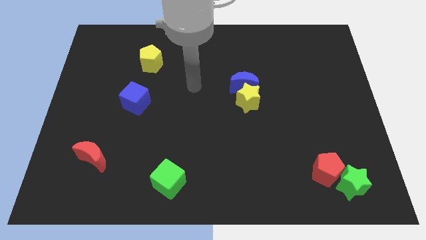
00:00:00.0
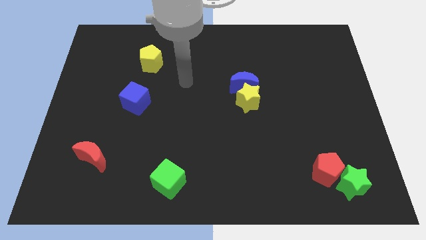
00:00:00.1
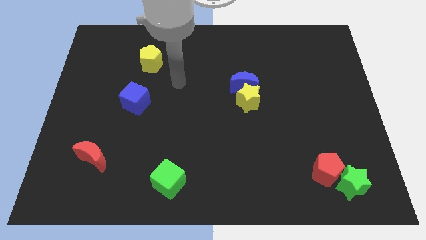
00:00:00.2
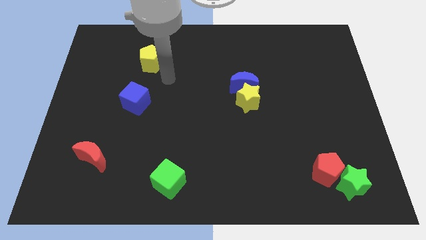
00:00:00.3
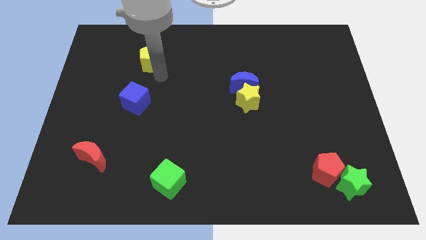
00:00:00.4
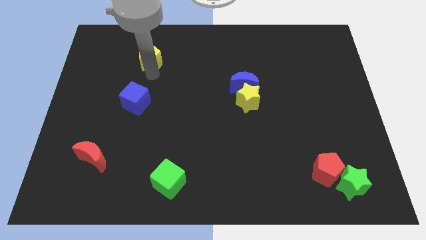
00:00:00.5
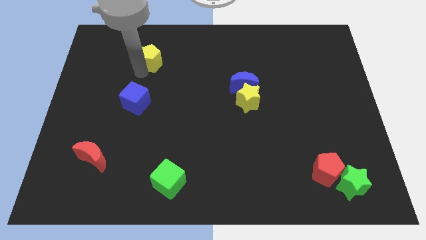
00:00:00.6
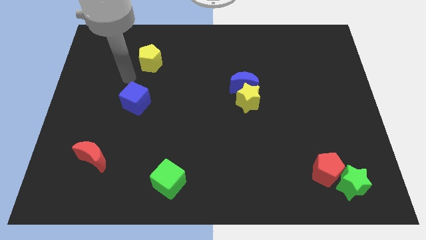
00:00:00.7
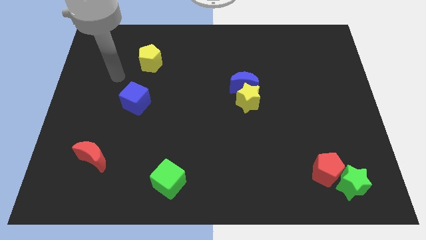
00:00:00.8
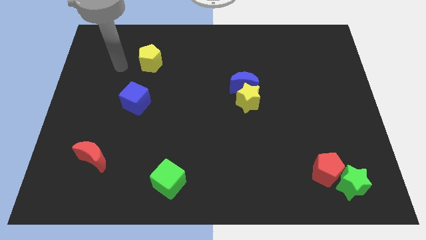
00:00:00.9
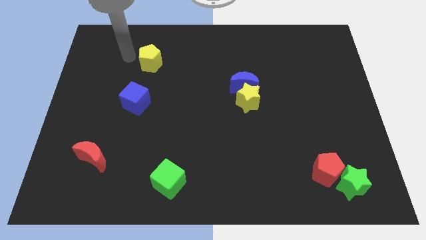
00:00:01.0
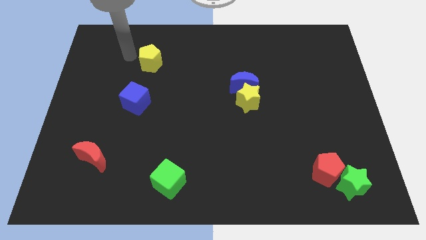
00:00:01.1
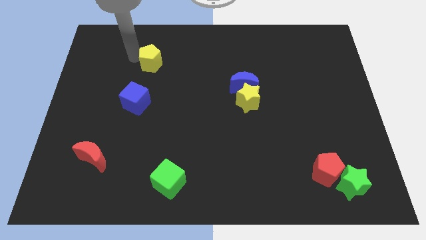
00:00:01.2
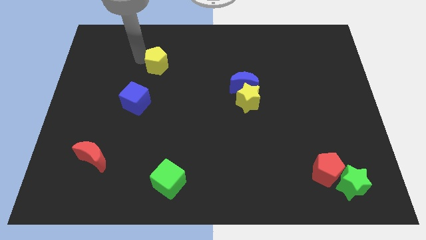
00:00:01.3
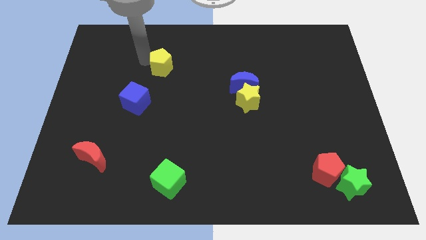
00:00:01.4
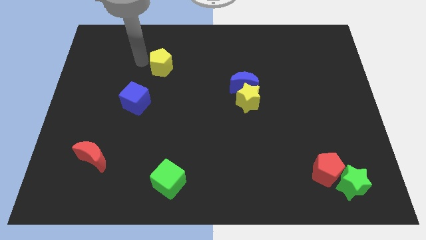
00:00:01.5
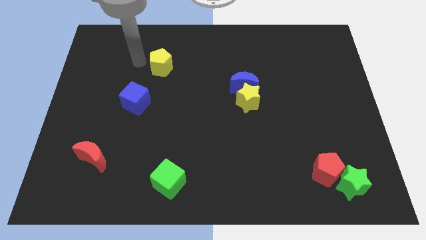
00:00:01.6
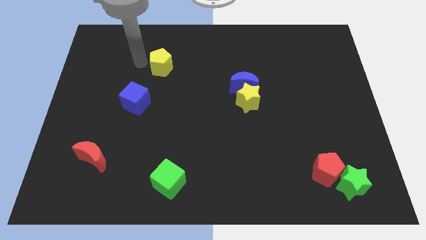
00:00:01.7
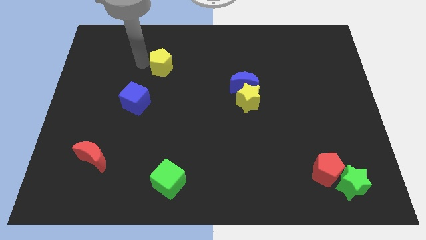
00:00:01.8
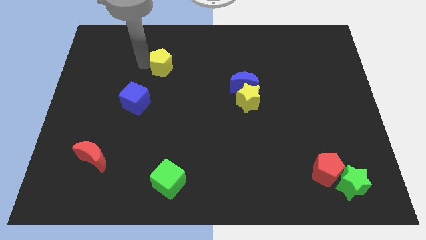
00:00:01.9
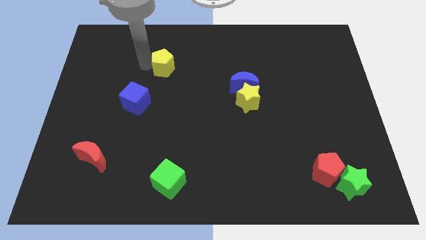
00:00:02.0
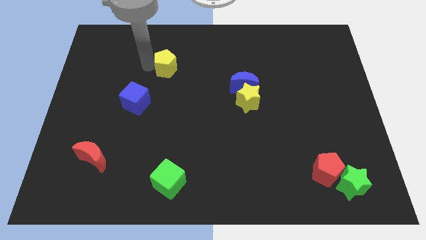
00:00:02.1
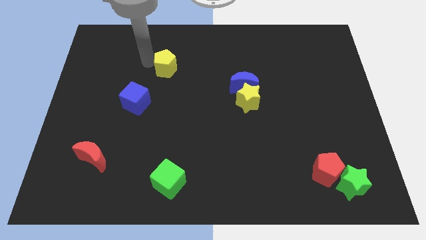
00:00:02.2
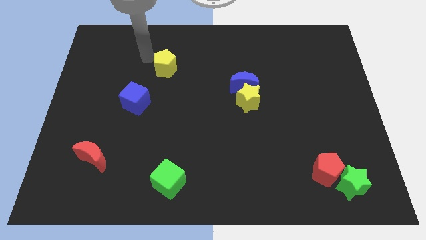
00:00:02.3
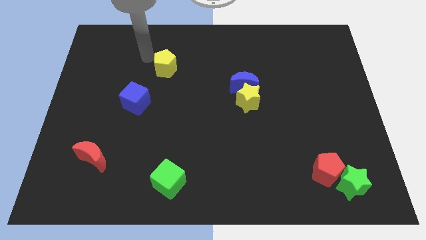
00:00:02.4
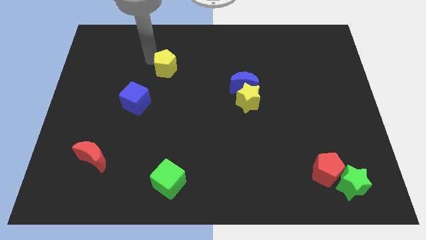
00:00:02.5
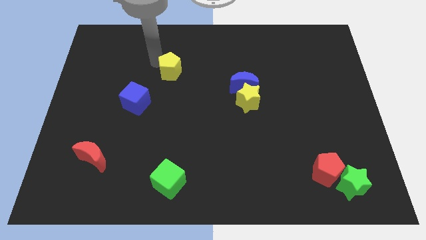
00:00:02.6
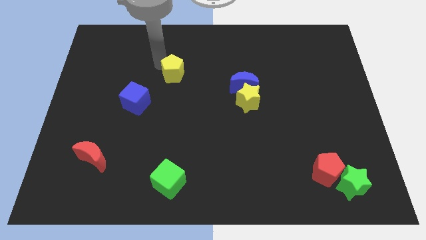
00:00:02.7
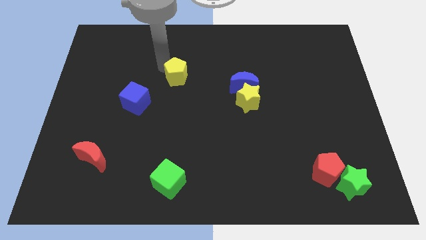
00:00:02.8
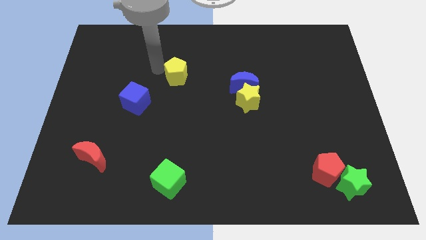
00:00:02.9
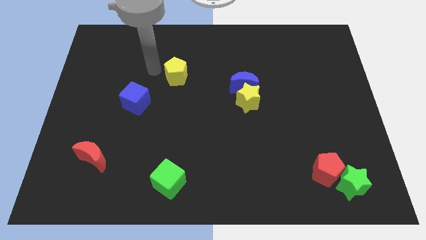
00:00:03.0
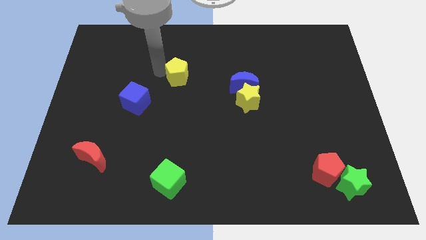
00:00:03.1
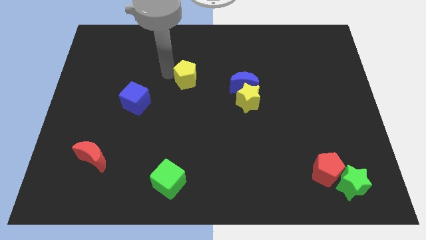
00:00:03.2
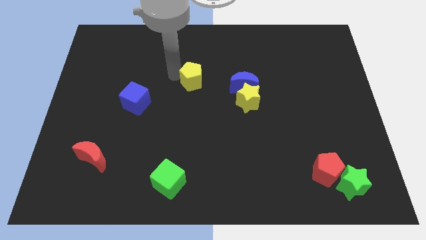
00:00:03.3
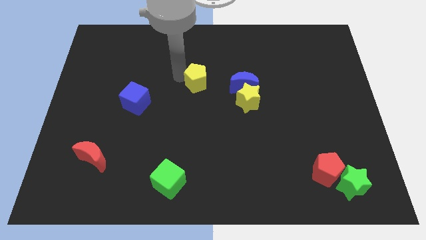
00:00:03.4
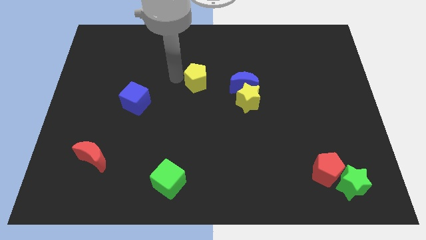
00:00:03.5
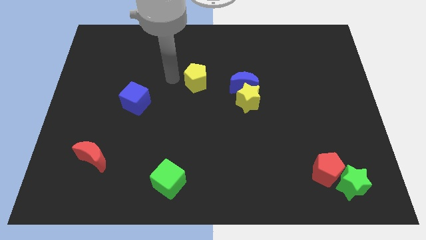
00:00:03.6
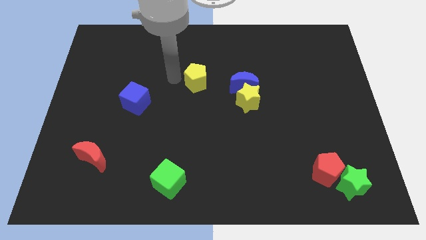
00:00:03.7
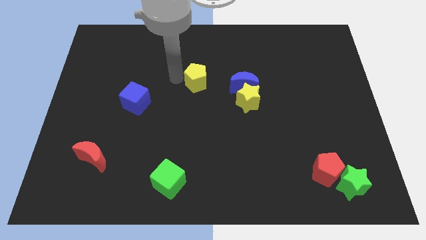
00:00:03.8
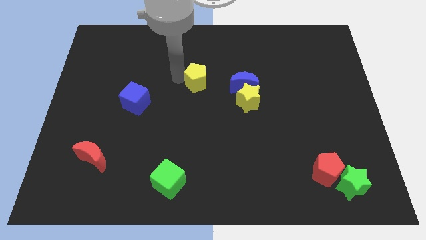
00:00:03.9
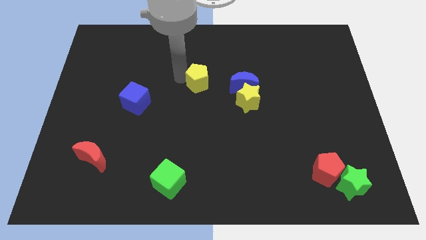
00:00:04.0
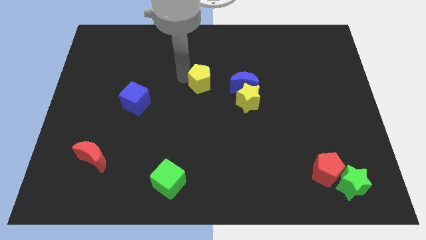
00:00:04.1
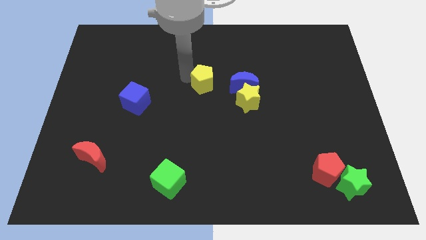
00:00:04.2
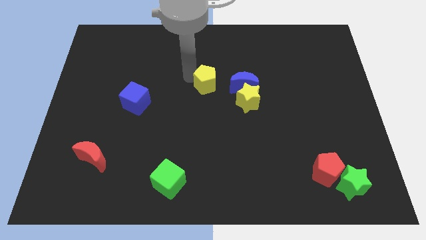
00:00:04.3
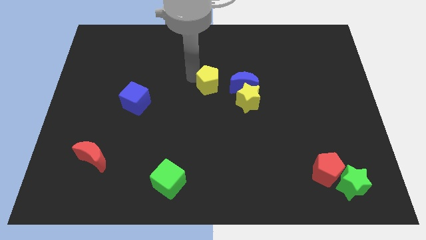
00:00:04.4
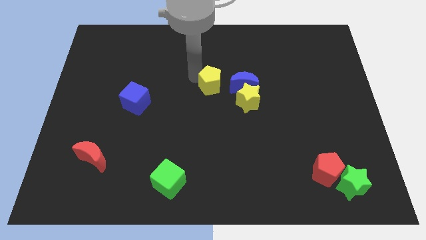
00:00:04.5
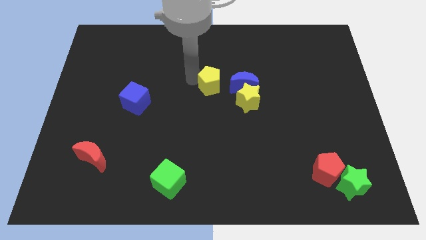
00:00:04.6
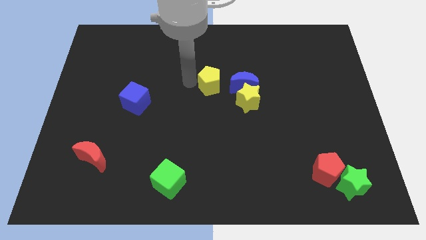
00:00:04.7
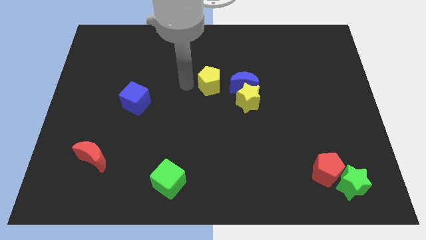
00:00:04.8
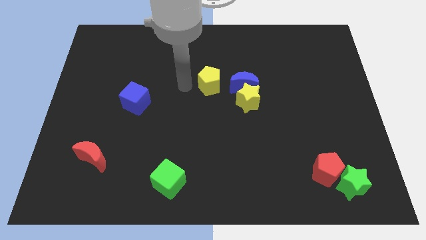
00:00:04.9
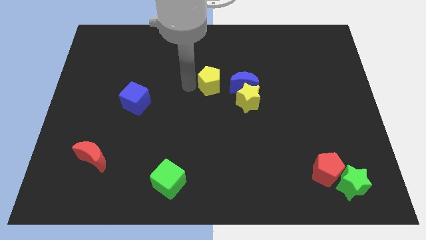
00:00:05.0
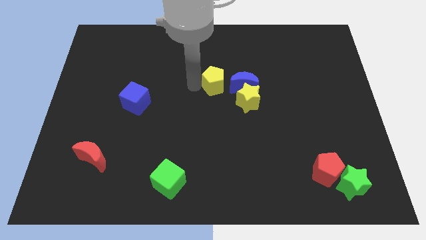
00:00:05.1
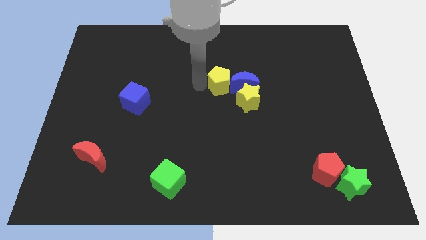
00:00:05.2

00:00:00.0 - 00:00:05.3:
move the yellow pentagon towards the blue moon

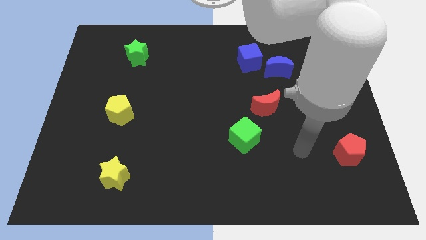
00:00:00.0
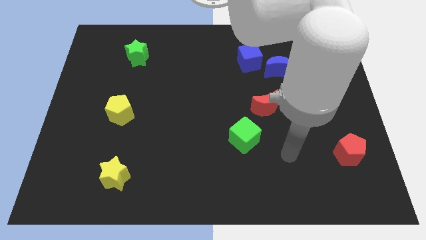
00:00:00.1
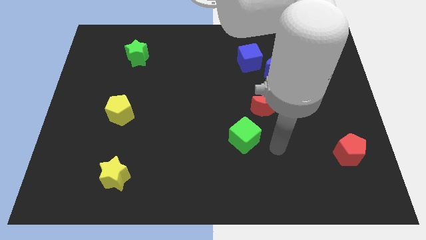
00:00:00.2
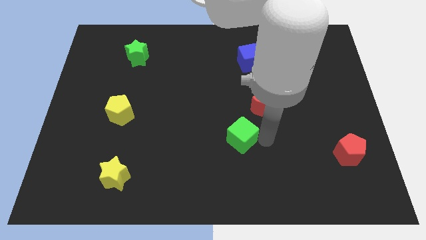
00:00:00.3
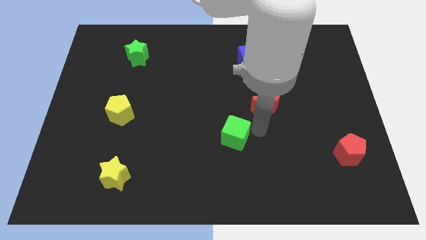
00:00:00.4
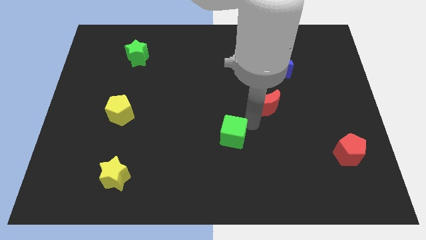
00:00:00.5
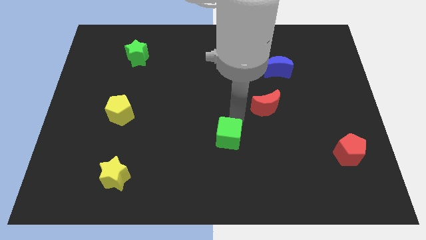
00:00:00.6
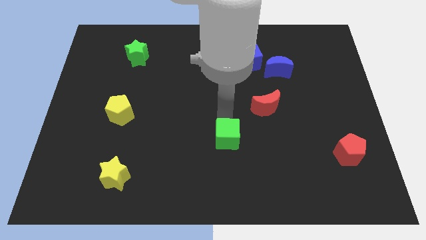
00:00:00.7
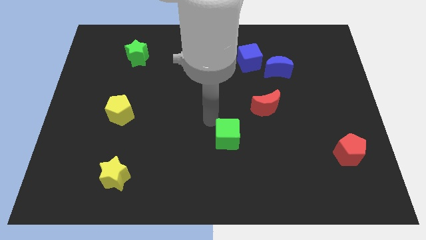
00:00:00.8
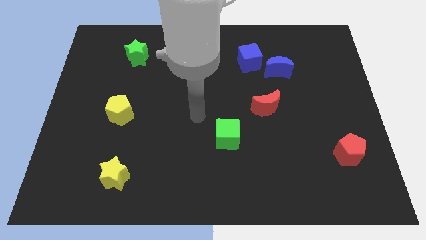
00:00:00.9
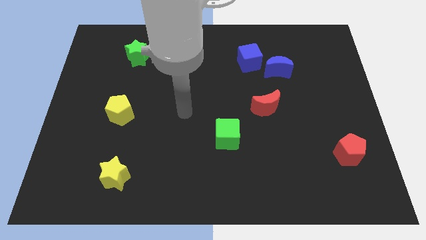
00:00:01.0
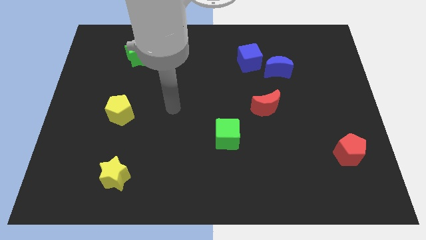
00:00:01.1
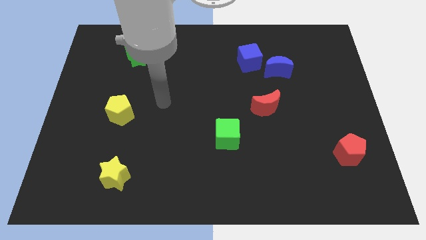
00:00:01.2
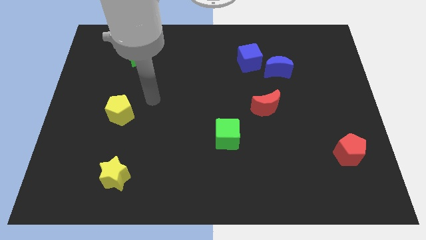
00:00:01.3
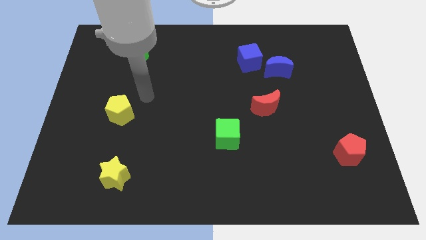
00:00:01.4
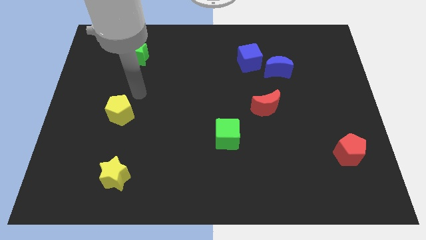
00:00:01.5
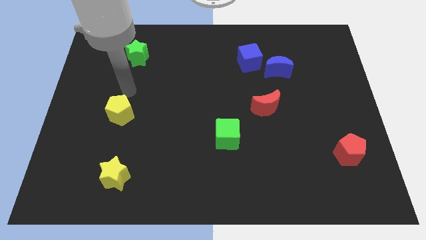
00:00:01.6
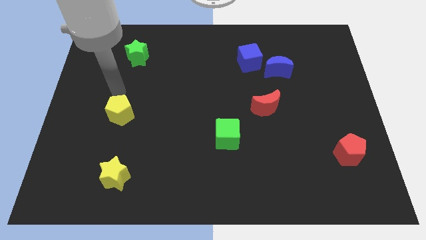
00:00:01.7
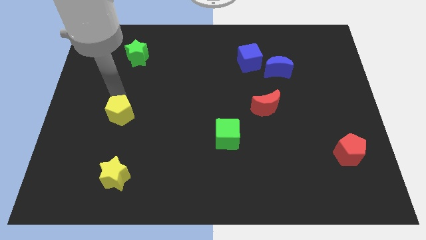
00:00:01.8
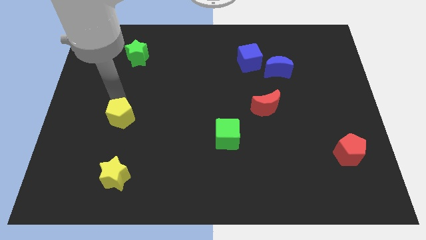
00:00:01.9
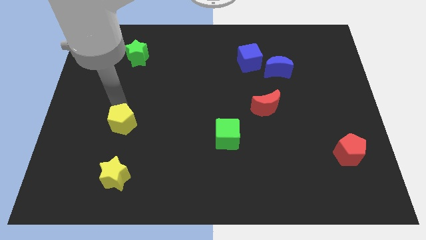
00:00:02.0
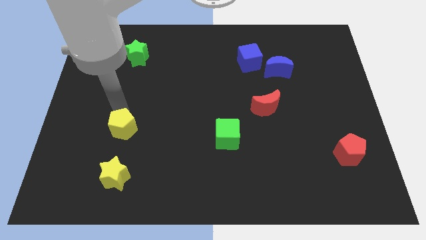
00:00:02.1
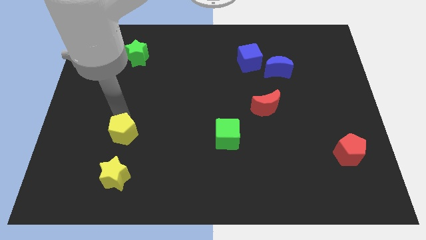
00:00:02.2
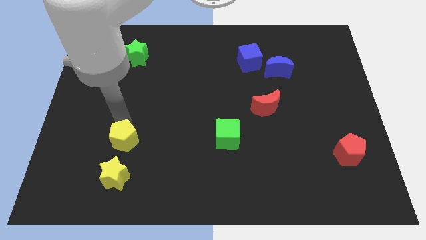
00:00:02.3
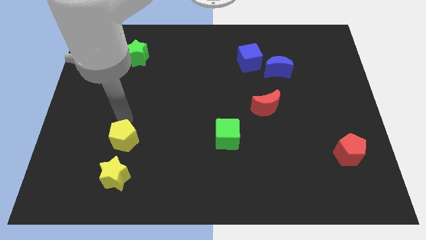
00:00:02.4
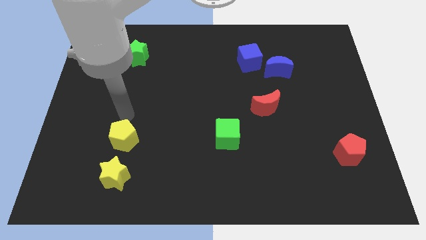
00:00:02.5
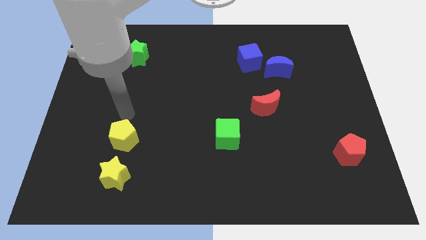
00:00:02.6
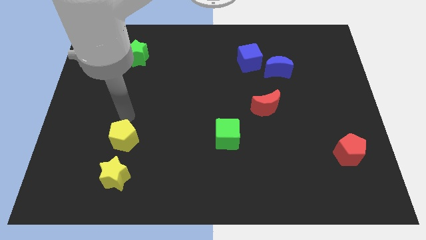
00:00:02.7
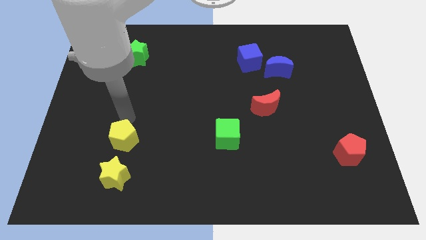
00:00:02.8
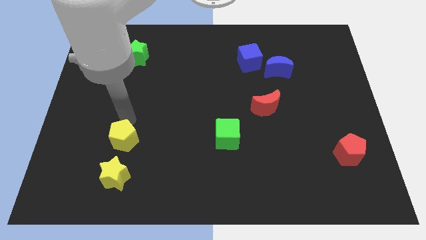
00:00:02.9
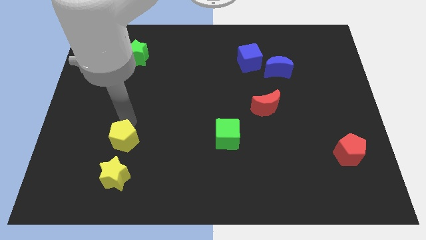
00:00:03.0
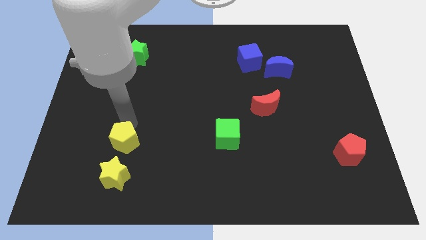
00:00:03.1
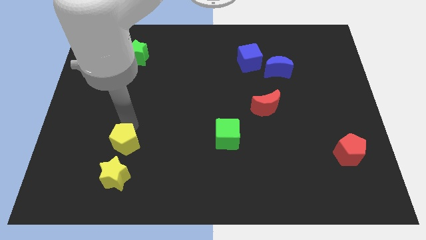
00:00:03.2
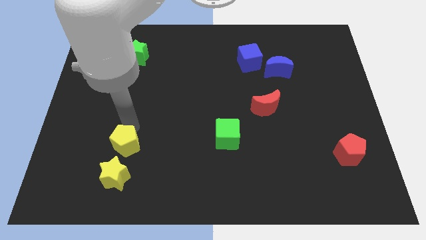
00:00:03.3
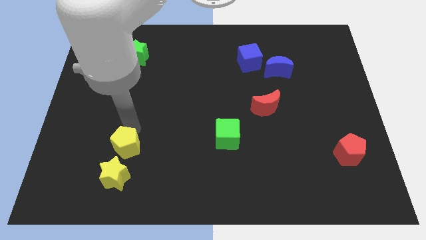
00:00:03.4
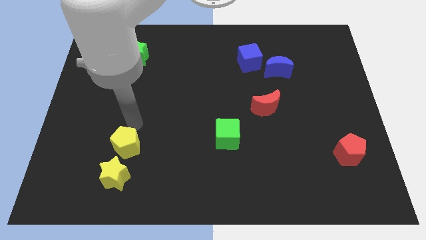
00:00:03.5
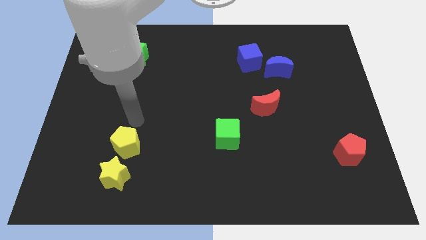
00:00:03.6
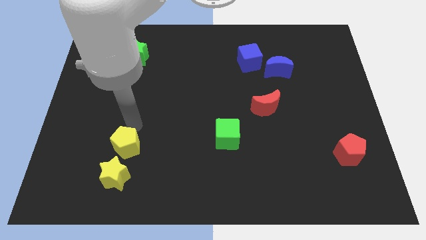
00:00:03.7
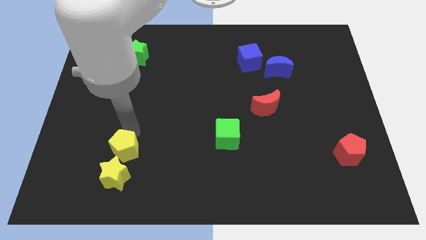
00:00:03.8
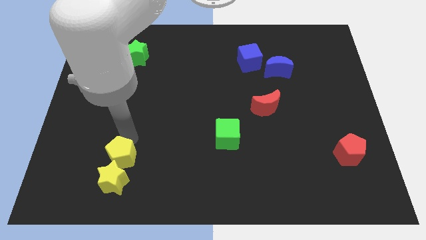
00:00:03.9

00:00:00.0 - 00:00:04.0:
push the yellow pentagon to the yellow star
